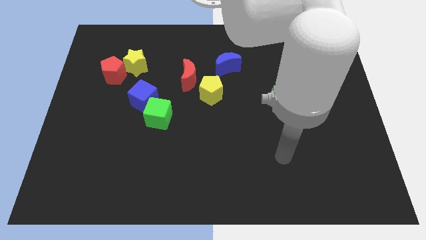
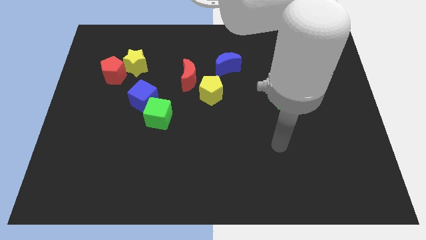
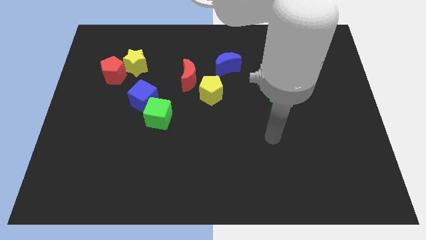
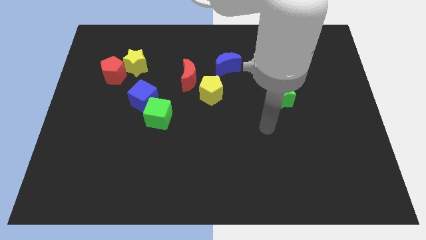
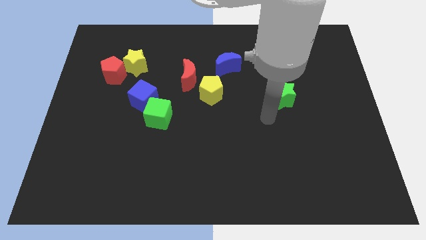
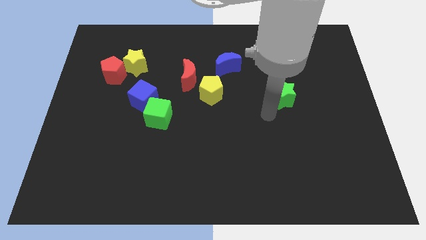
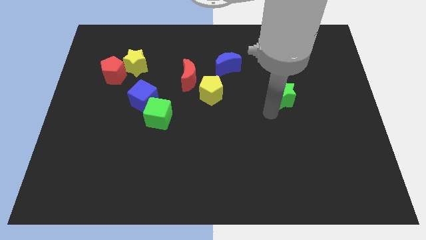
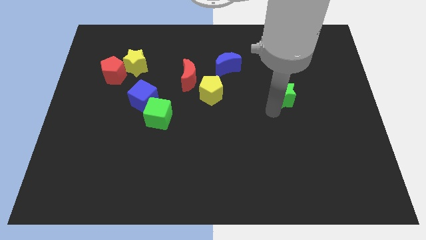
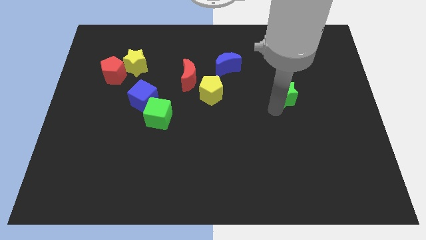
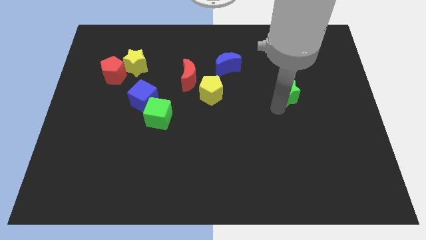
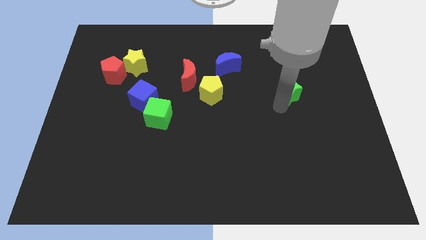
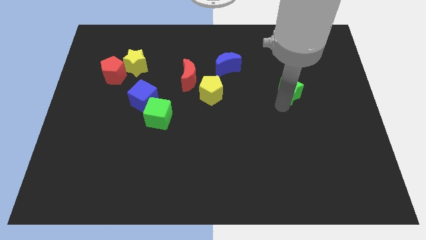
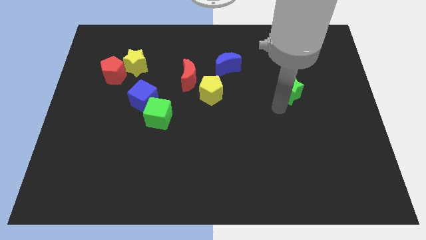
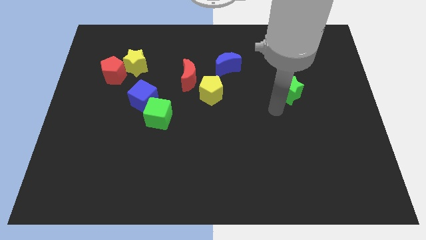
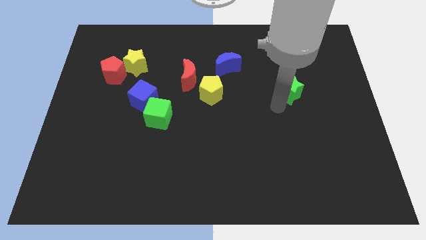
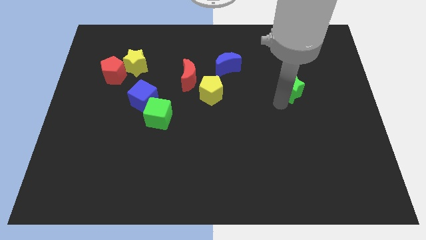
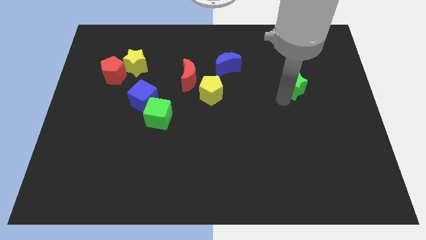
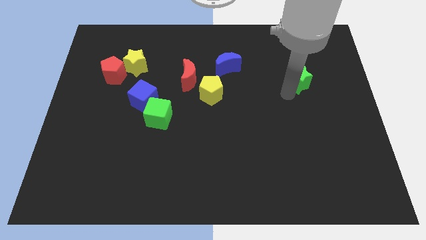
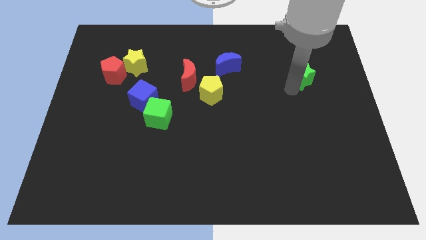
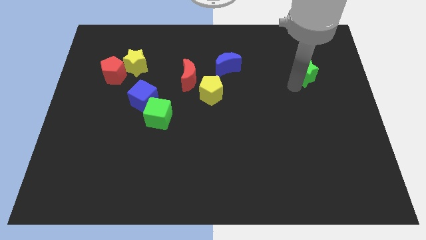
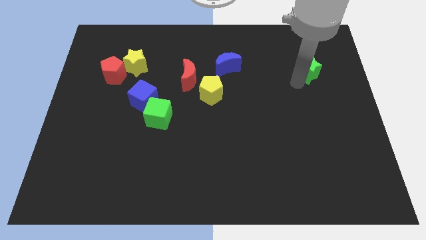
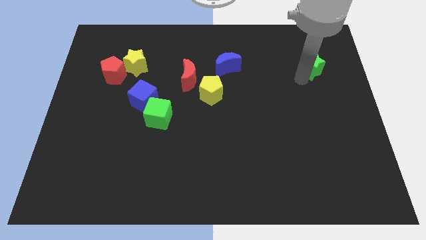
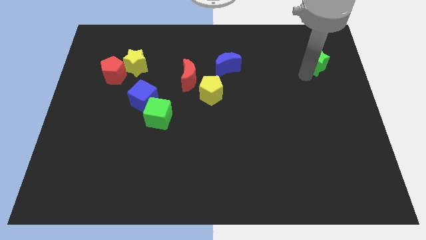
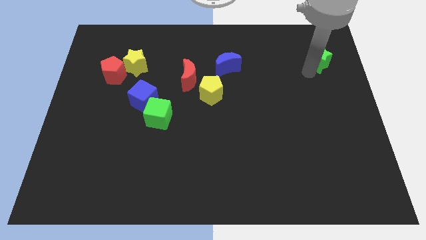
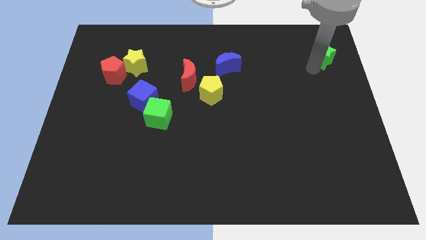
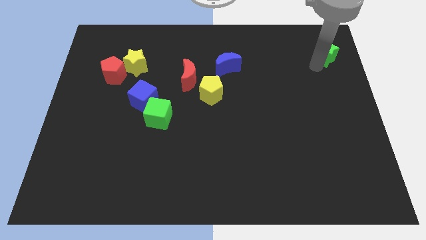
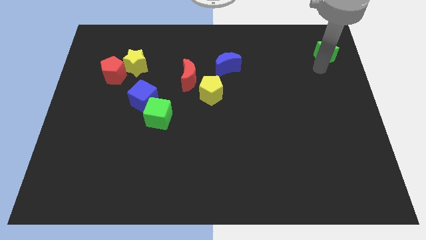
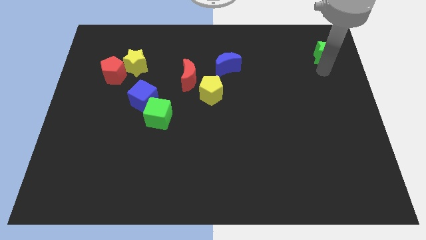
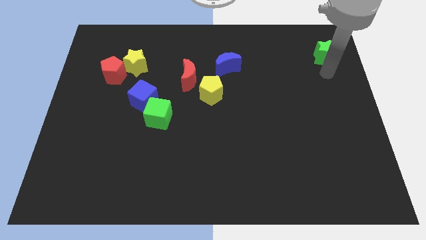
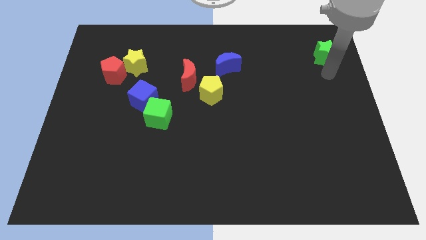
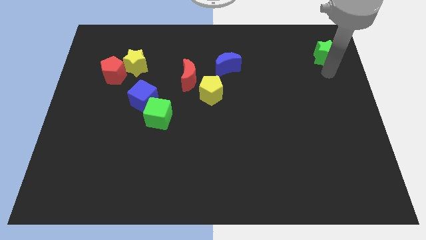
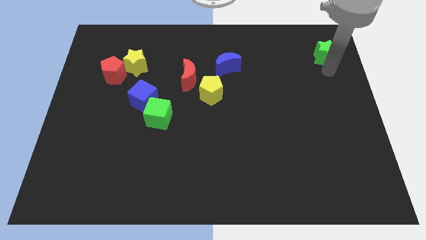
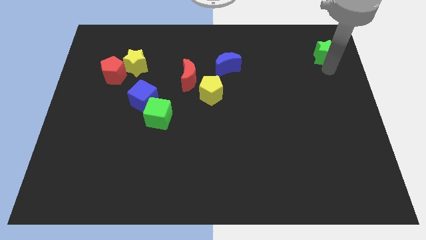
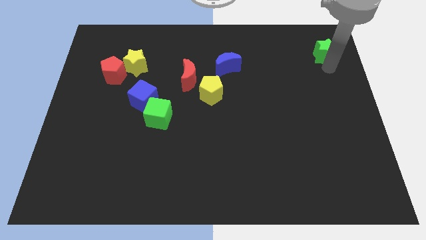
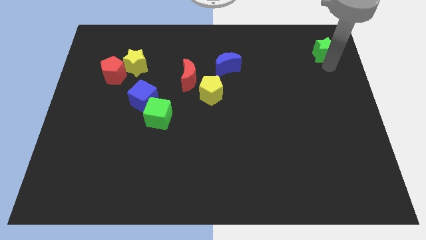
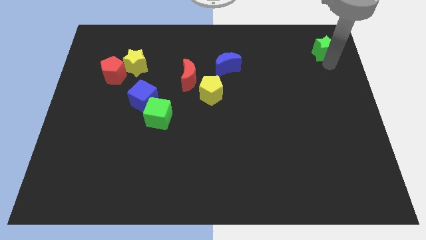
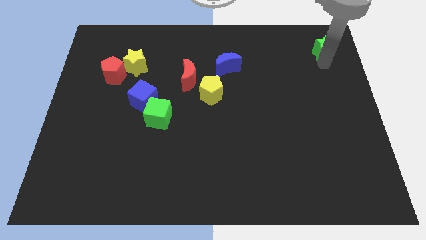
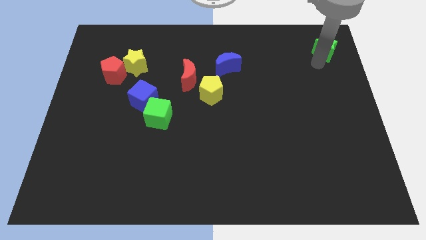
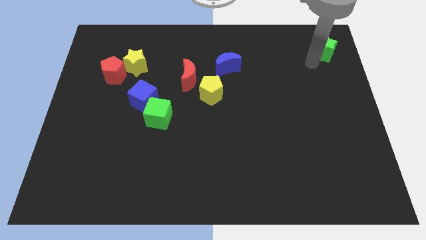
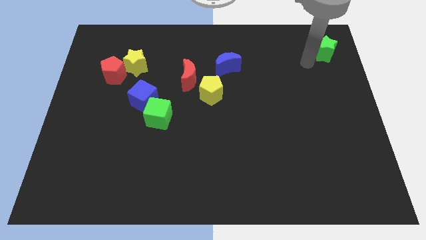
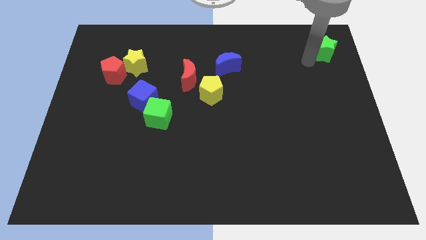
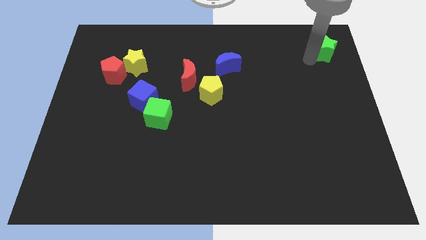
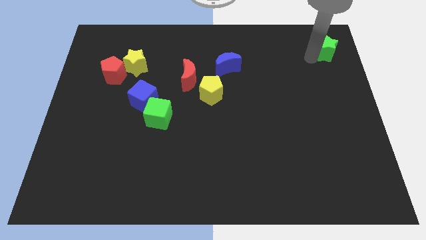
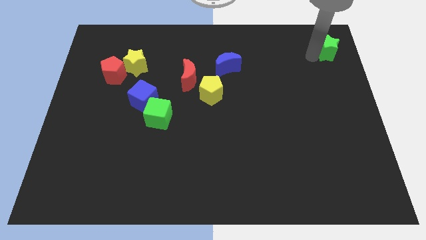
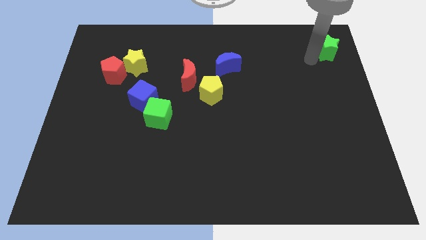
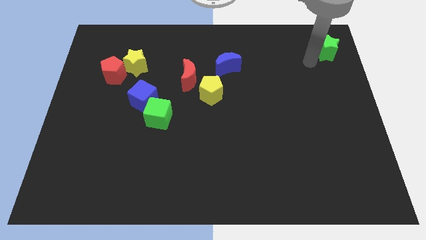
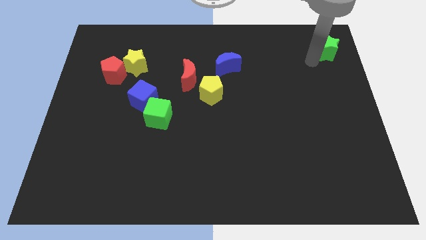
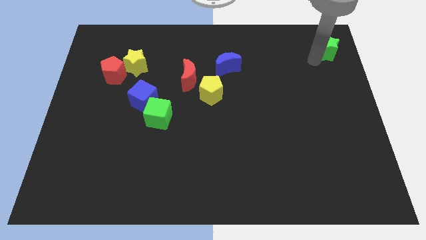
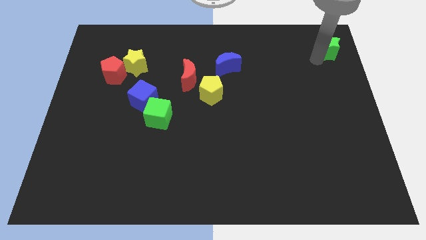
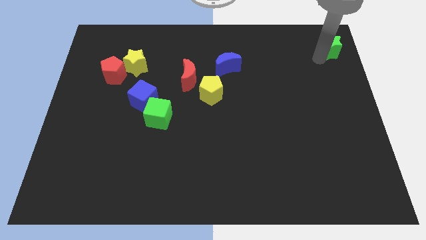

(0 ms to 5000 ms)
move the green star to the top right of the board

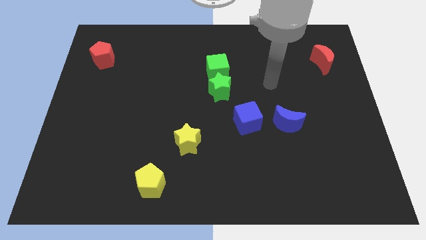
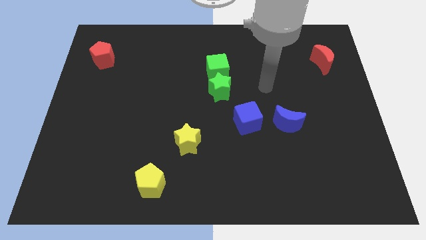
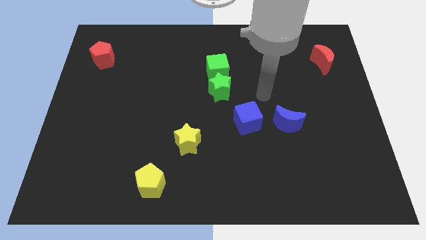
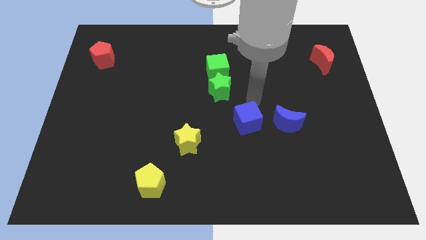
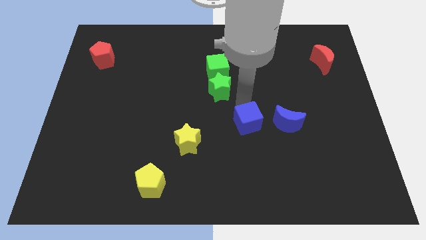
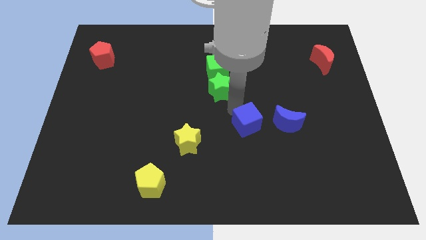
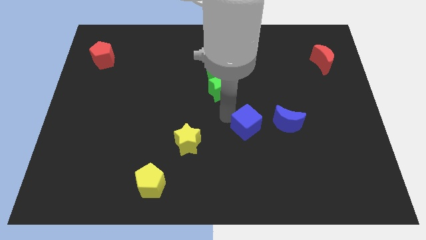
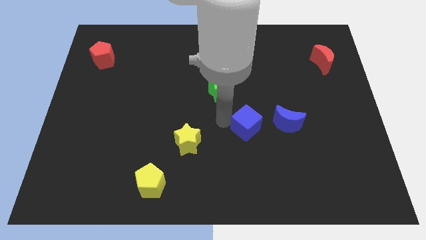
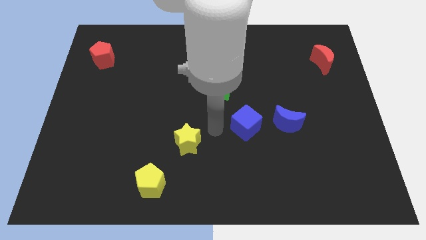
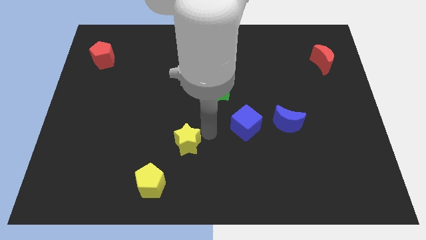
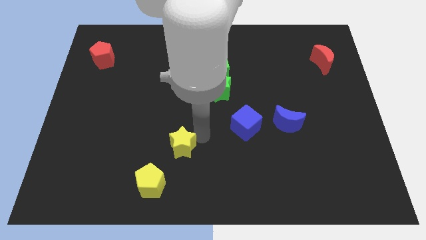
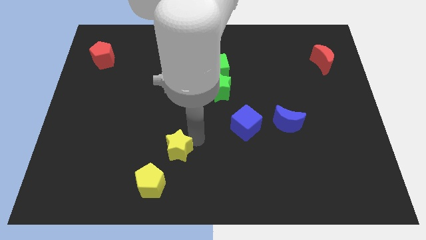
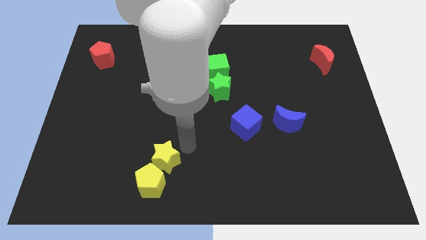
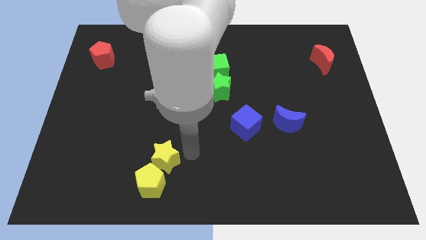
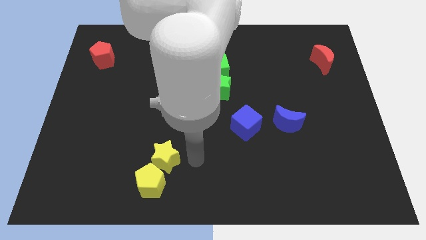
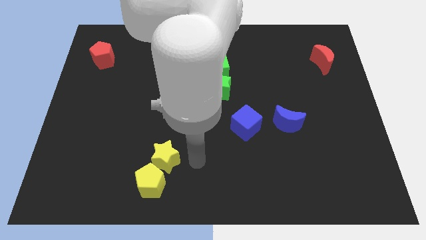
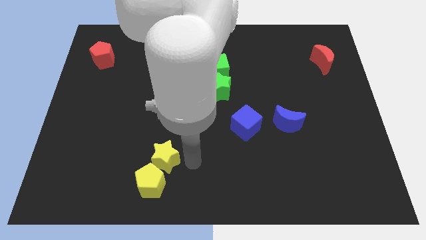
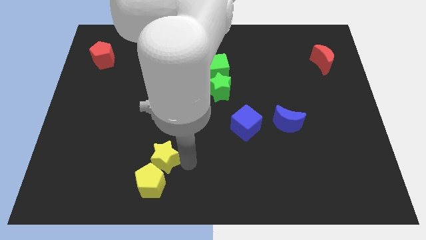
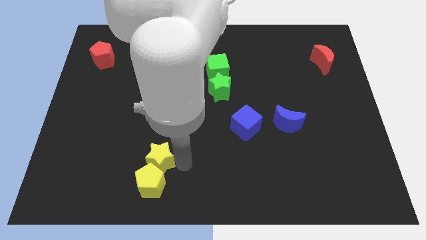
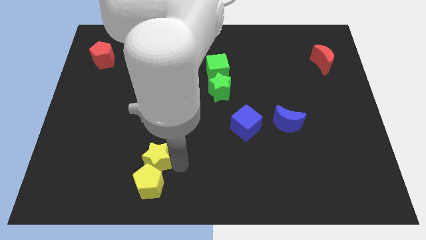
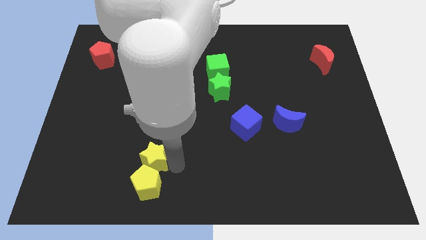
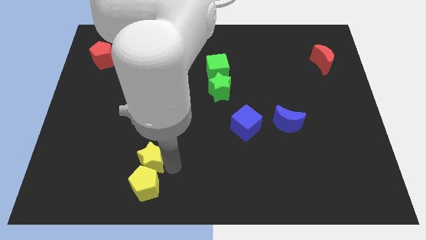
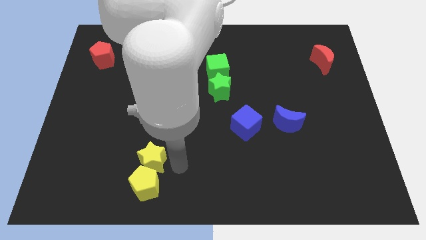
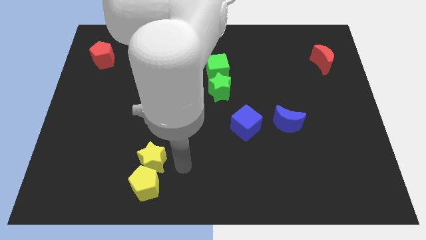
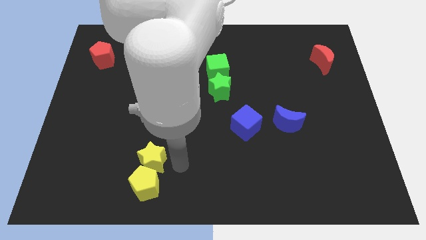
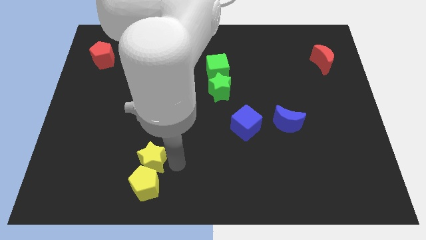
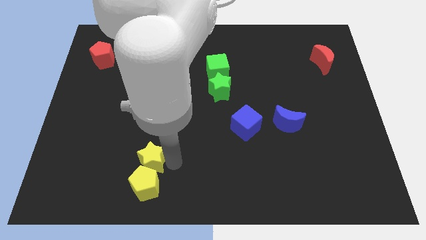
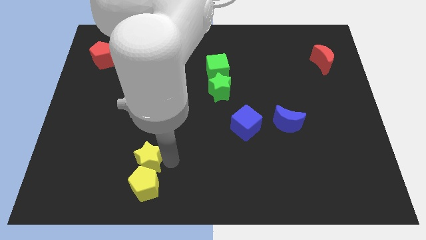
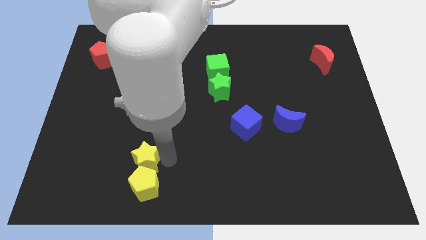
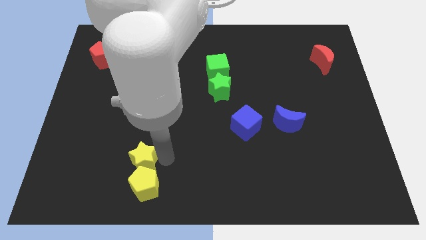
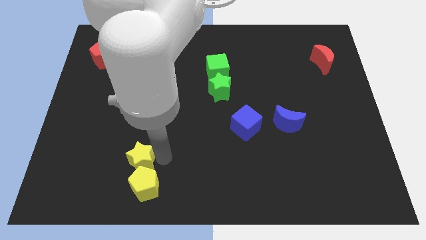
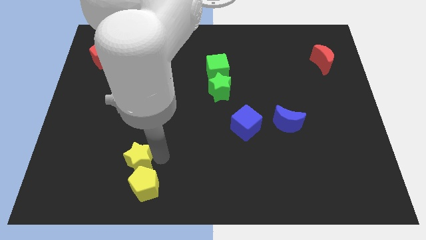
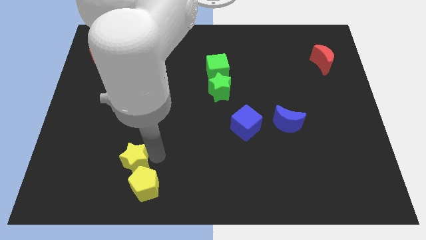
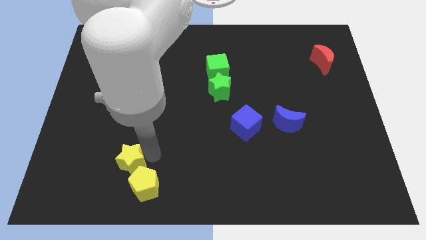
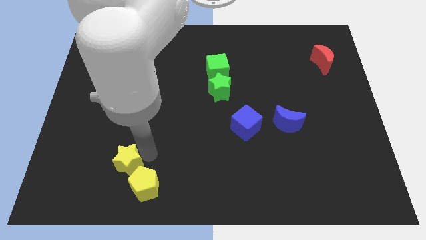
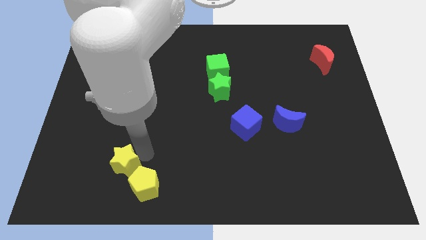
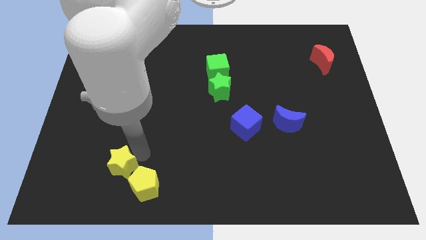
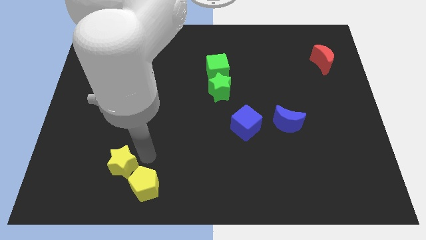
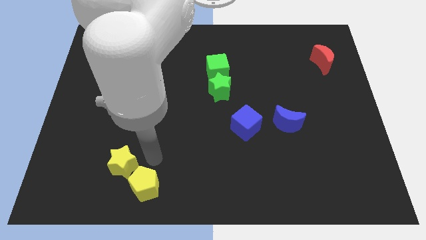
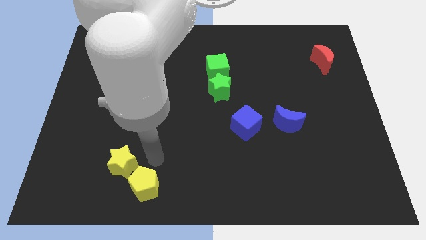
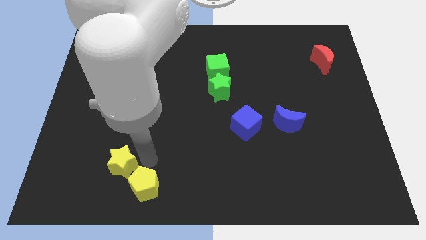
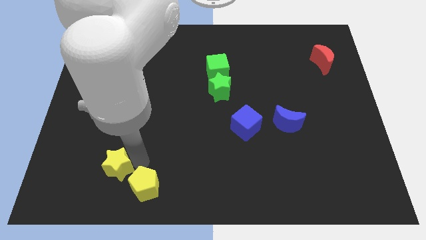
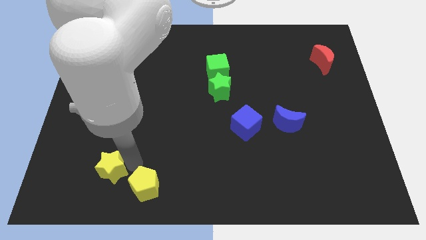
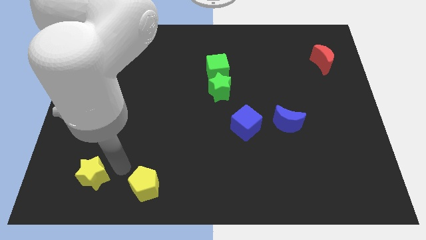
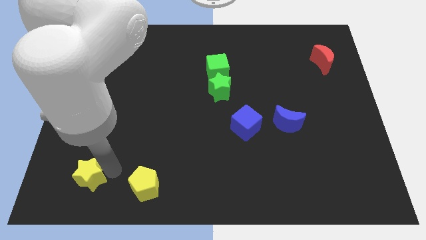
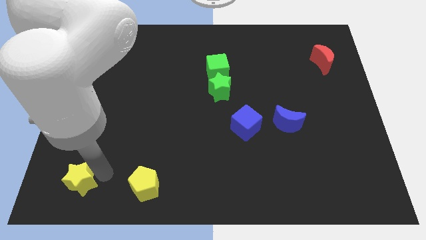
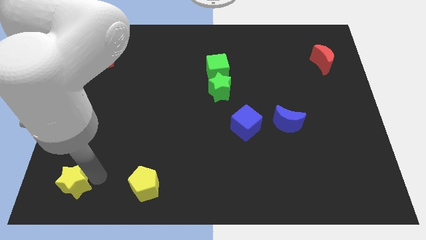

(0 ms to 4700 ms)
slide the yellow star to the bottom left corner
